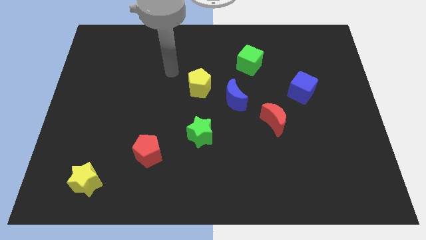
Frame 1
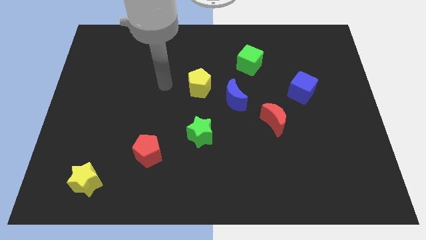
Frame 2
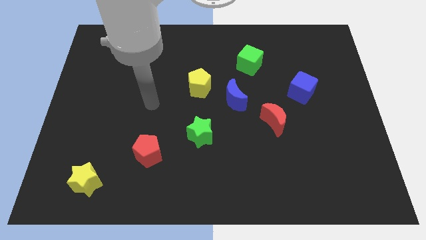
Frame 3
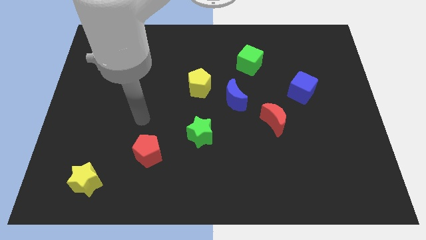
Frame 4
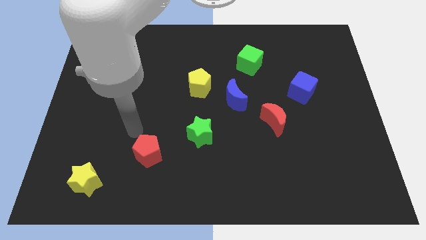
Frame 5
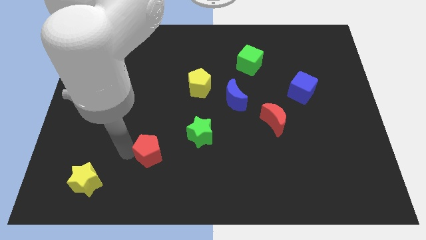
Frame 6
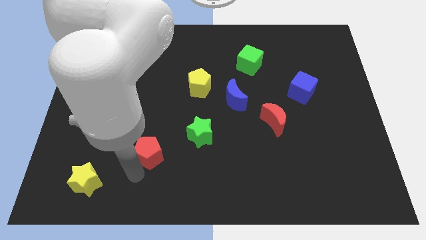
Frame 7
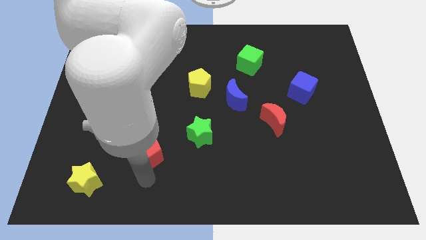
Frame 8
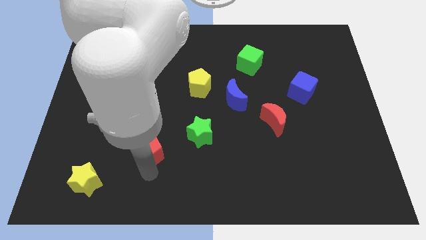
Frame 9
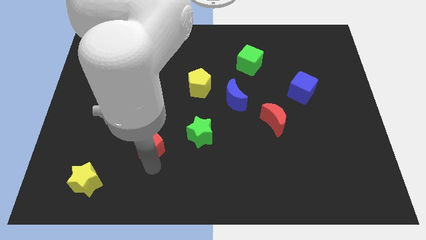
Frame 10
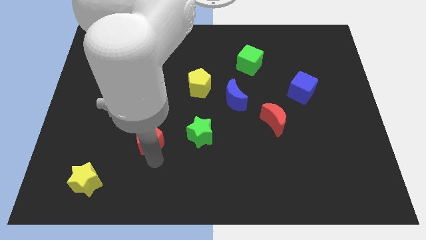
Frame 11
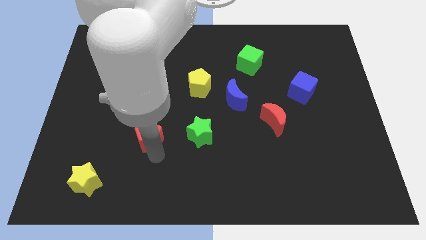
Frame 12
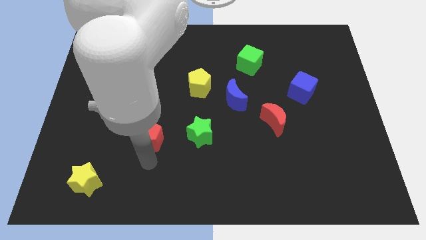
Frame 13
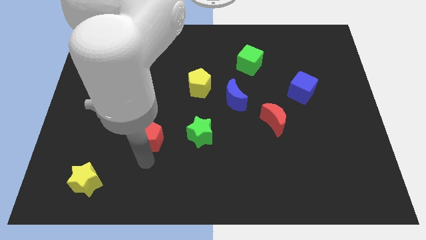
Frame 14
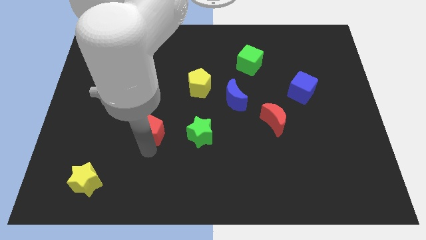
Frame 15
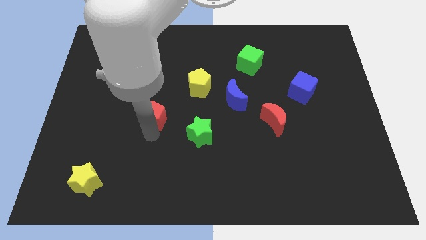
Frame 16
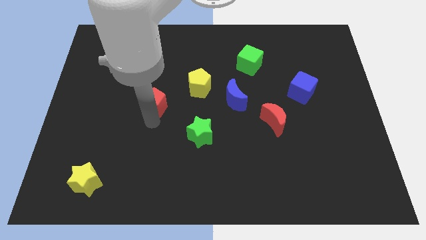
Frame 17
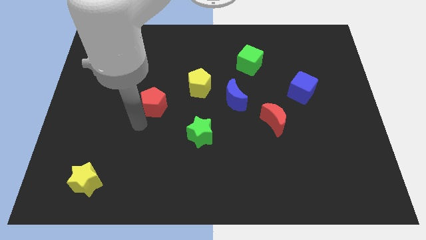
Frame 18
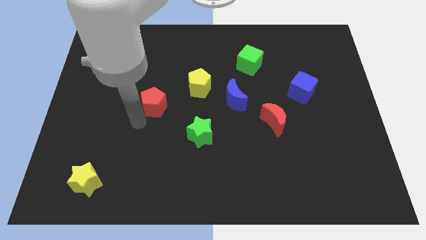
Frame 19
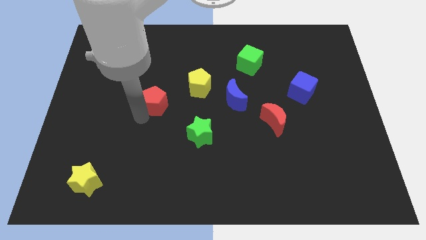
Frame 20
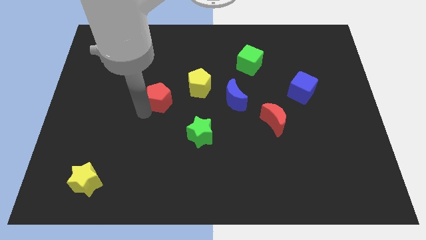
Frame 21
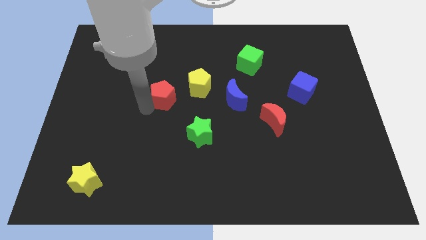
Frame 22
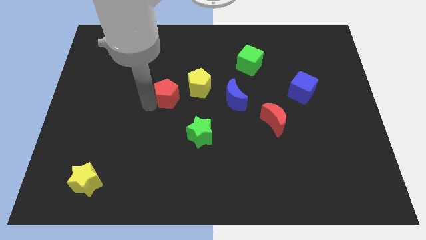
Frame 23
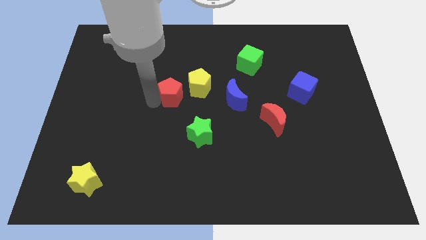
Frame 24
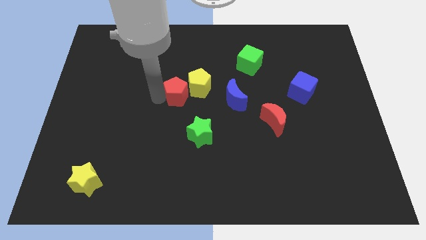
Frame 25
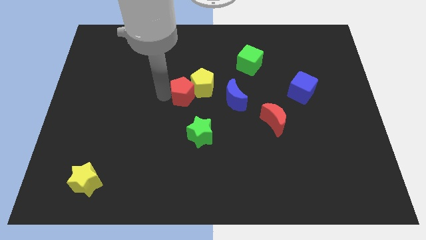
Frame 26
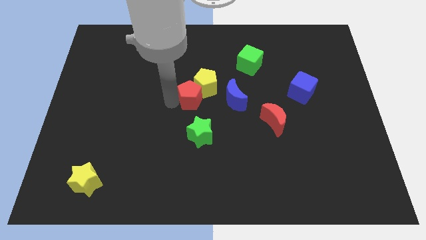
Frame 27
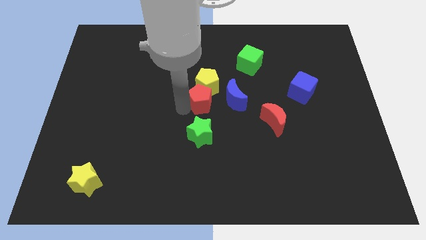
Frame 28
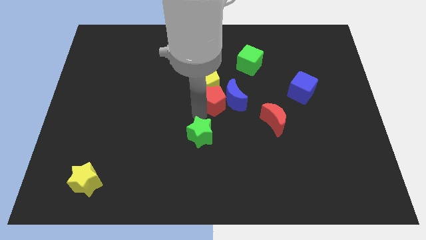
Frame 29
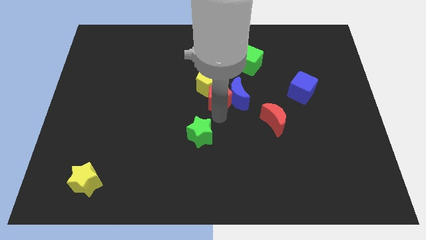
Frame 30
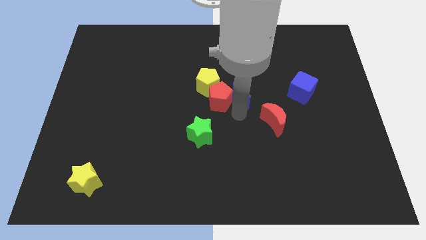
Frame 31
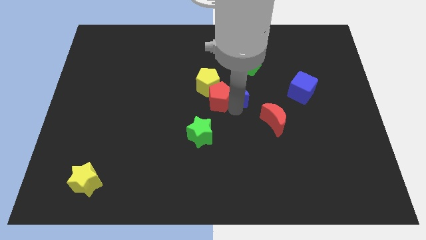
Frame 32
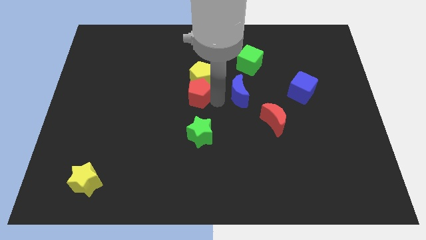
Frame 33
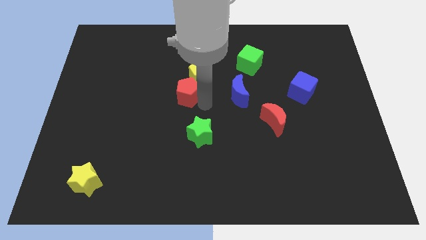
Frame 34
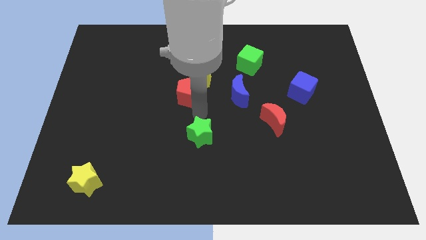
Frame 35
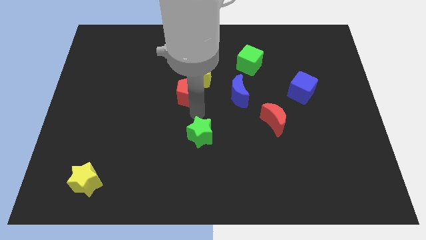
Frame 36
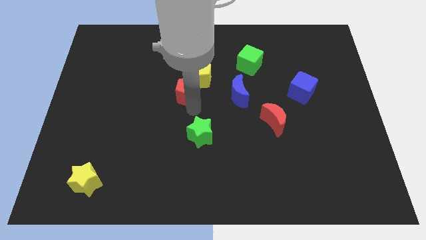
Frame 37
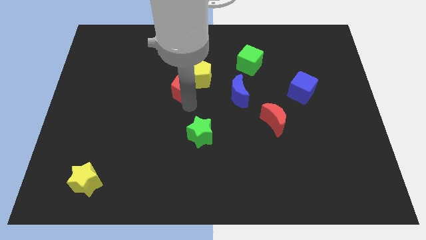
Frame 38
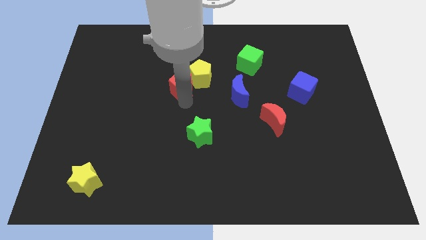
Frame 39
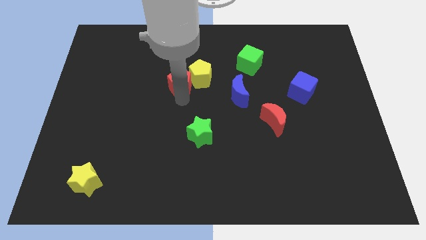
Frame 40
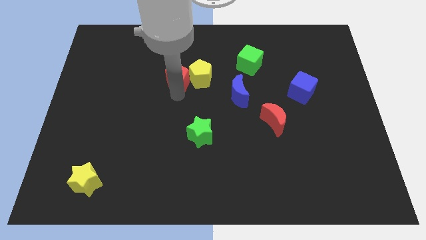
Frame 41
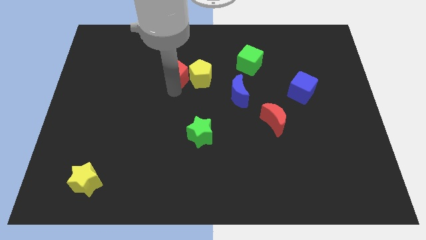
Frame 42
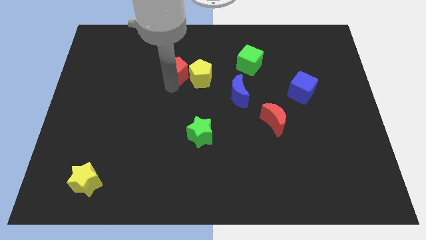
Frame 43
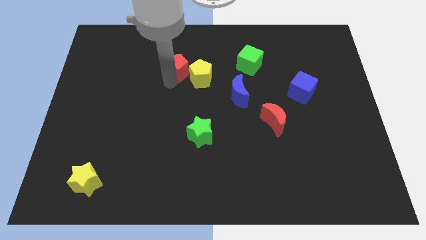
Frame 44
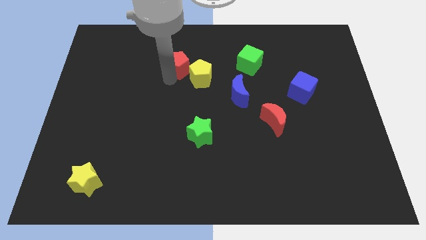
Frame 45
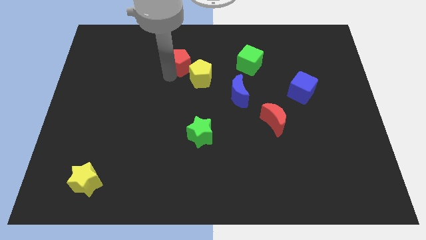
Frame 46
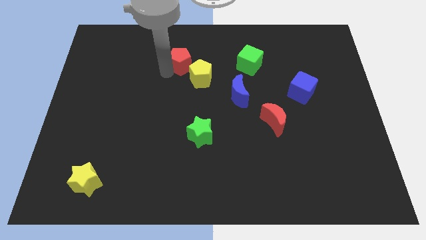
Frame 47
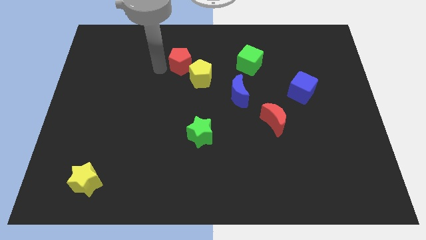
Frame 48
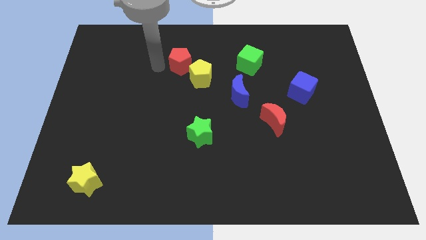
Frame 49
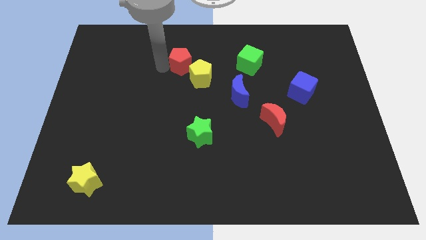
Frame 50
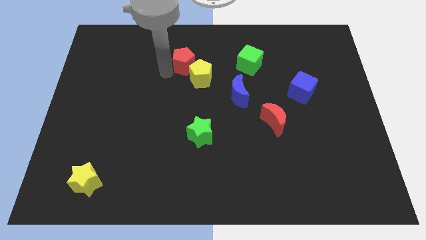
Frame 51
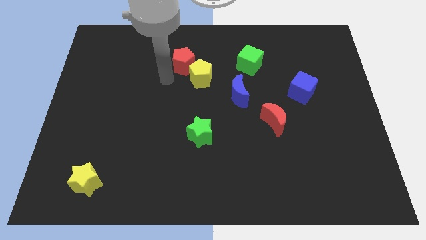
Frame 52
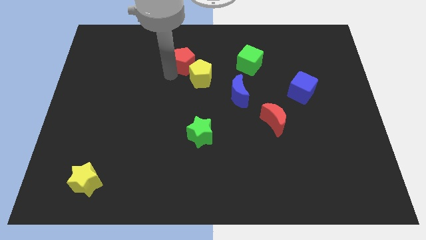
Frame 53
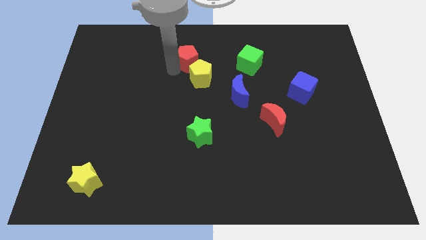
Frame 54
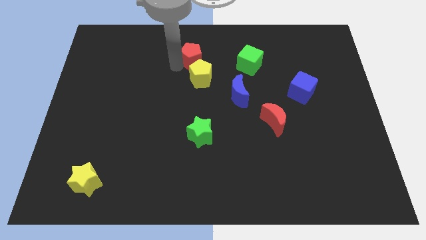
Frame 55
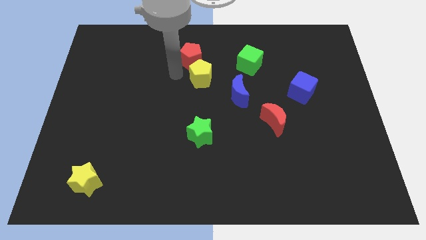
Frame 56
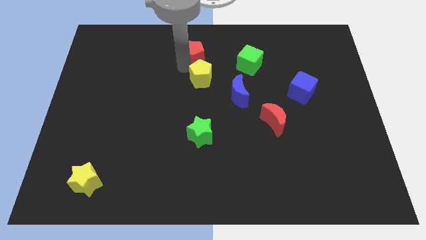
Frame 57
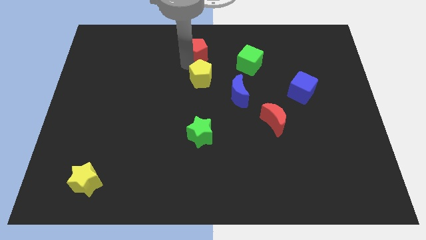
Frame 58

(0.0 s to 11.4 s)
put the red pentagon to the towards your base

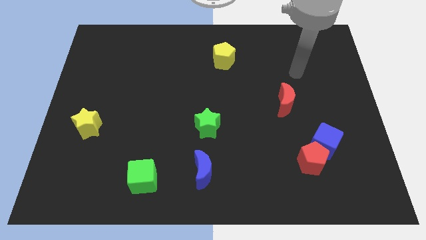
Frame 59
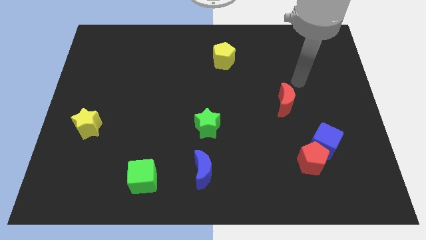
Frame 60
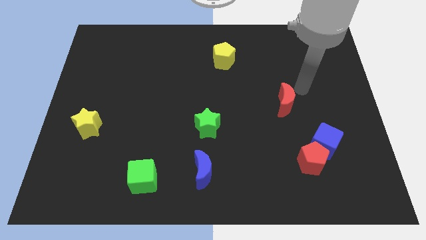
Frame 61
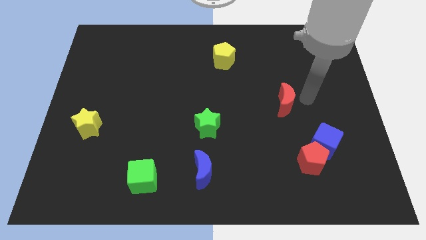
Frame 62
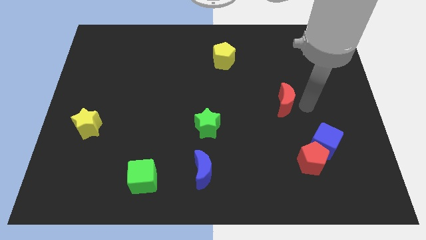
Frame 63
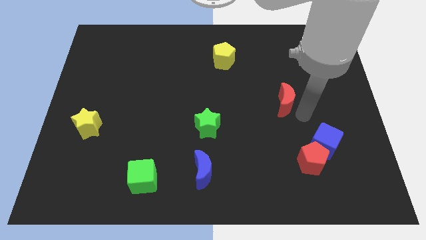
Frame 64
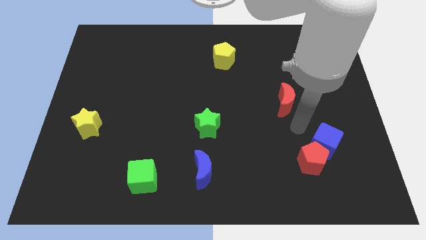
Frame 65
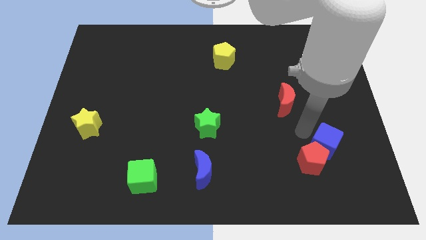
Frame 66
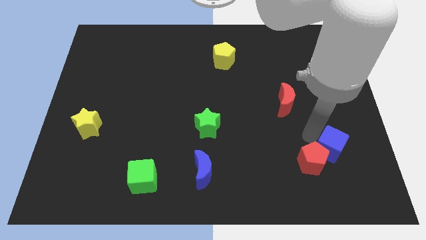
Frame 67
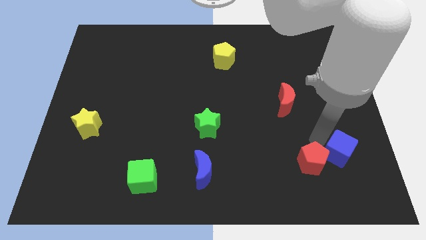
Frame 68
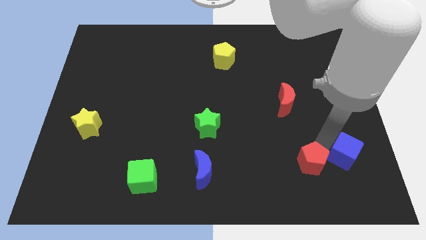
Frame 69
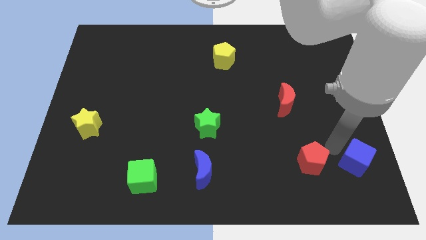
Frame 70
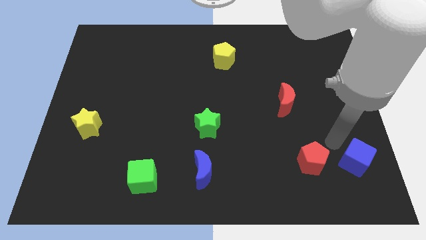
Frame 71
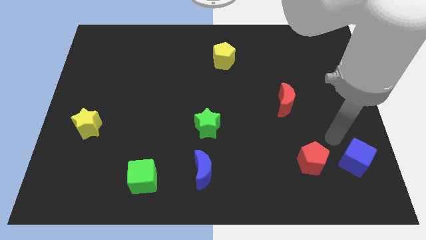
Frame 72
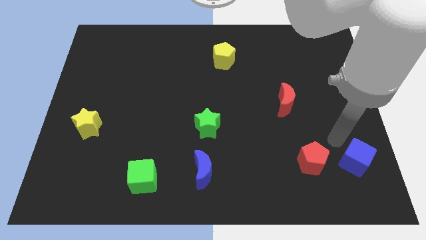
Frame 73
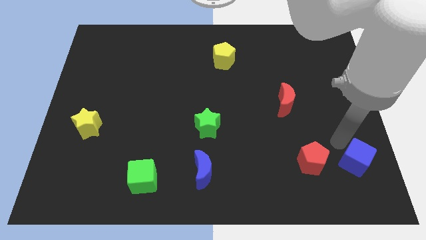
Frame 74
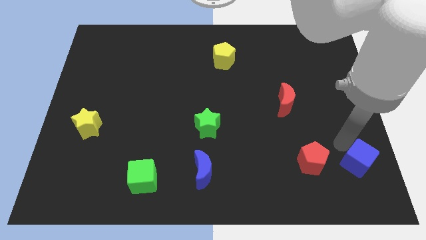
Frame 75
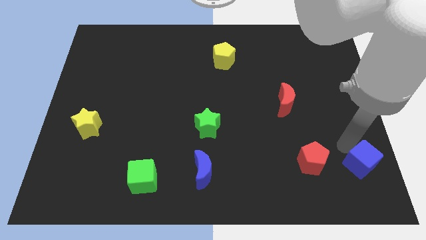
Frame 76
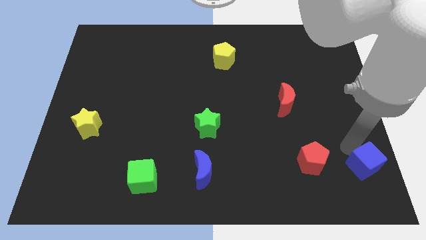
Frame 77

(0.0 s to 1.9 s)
move the blue cube to the lower right corner
